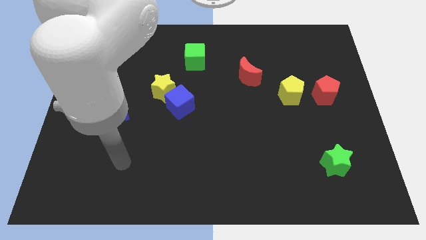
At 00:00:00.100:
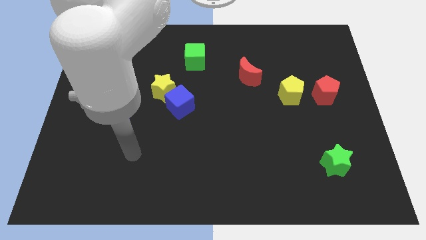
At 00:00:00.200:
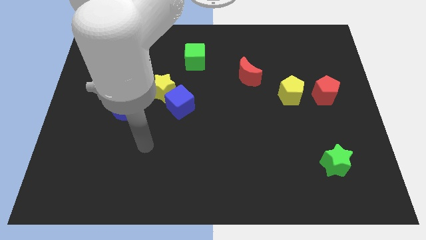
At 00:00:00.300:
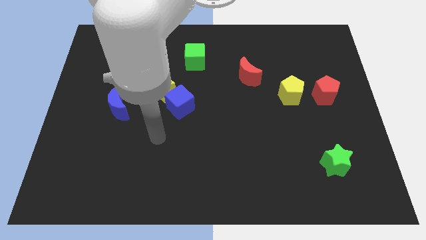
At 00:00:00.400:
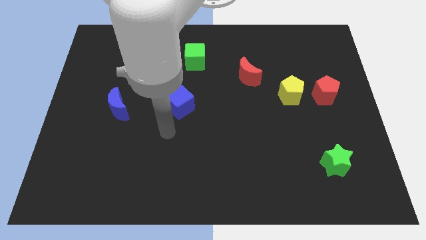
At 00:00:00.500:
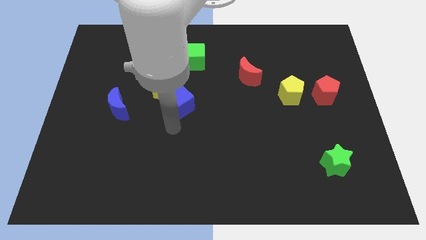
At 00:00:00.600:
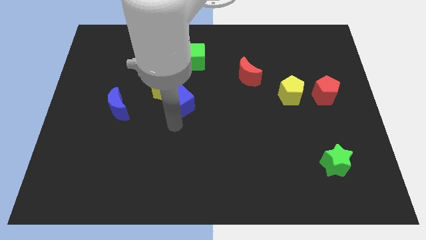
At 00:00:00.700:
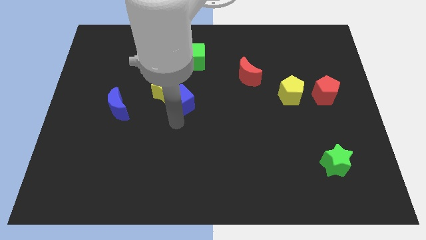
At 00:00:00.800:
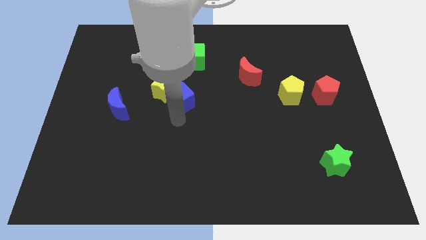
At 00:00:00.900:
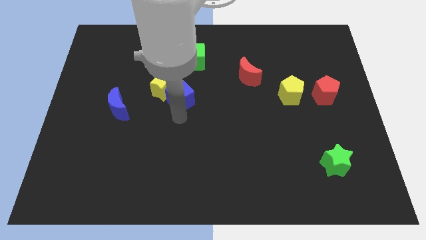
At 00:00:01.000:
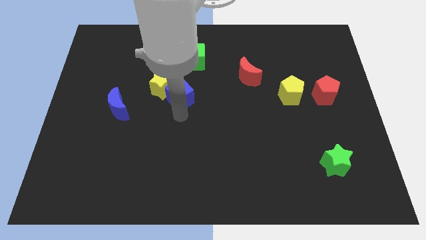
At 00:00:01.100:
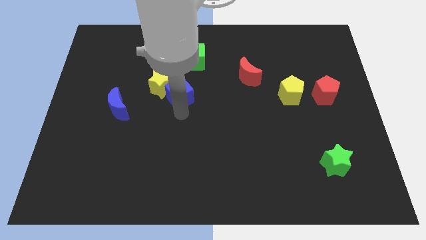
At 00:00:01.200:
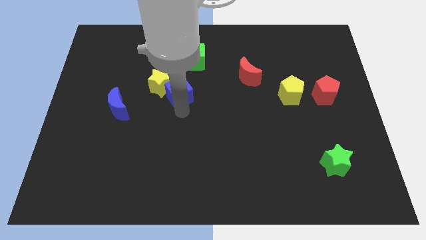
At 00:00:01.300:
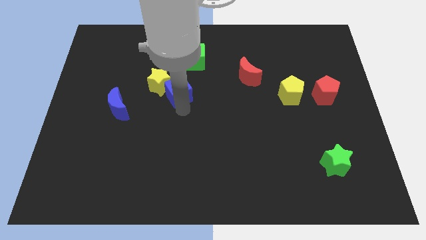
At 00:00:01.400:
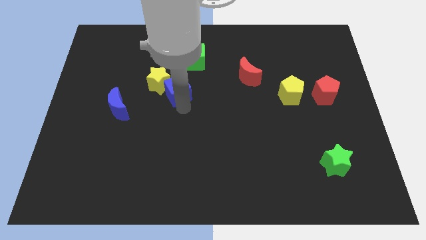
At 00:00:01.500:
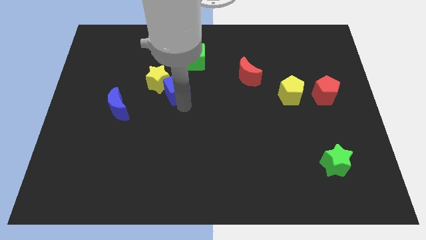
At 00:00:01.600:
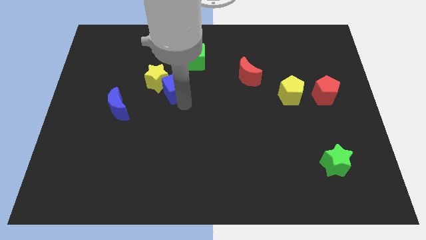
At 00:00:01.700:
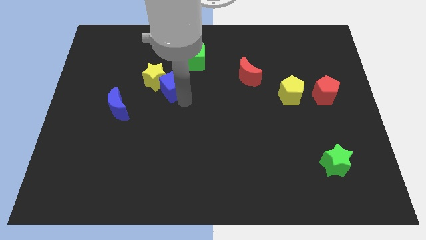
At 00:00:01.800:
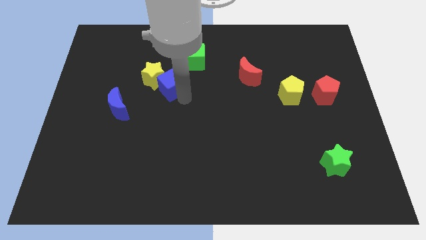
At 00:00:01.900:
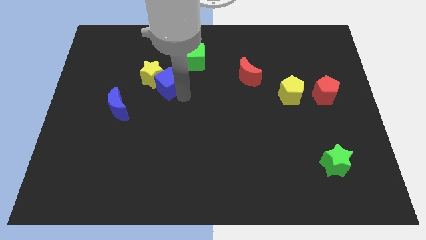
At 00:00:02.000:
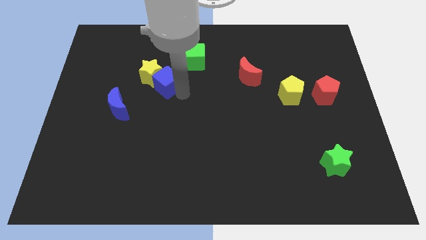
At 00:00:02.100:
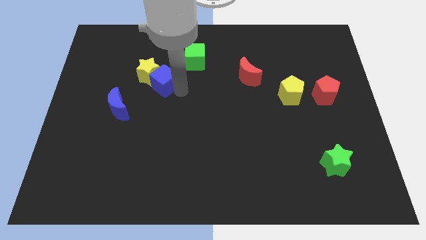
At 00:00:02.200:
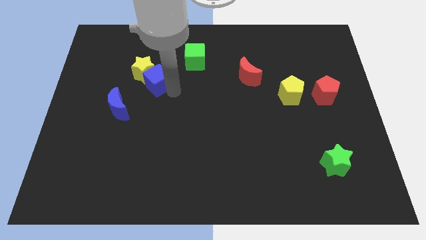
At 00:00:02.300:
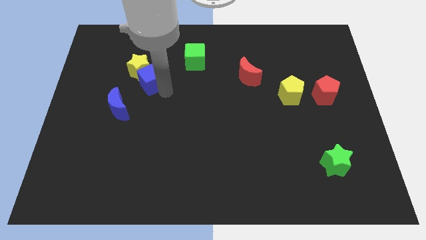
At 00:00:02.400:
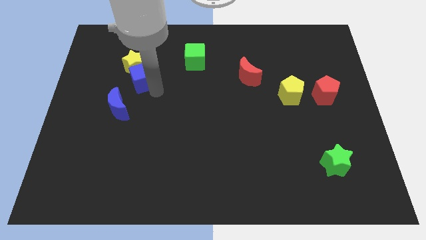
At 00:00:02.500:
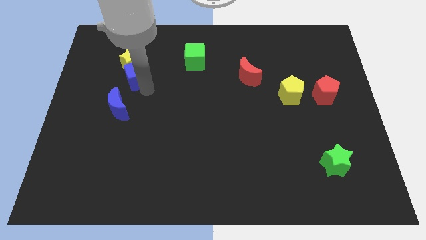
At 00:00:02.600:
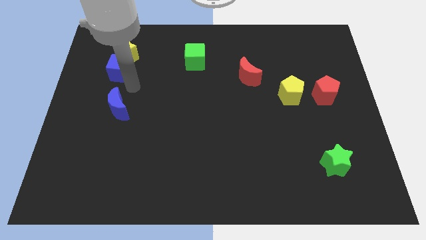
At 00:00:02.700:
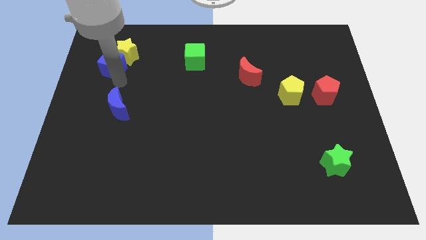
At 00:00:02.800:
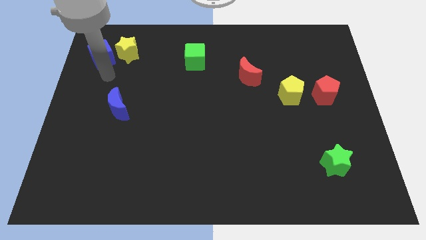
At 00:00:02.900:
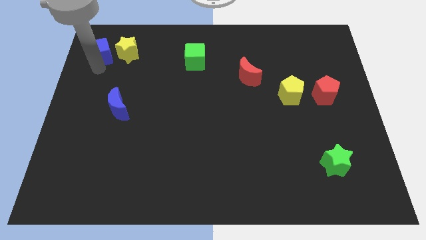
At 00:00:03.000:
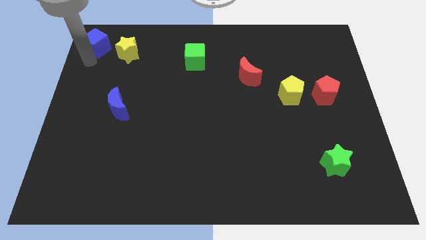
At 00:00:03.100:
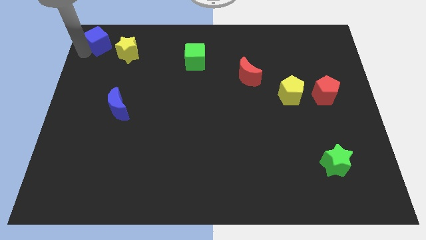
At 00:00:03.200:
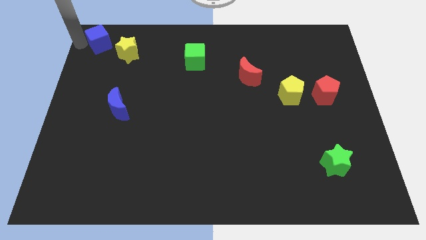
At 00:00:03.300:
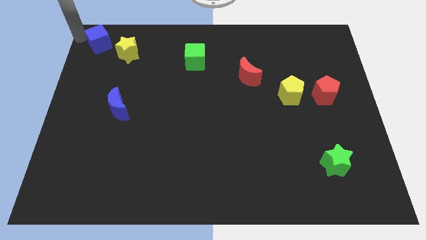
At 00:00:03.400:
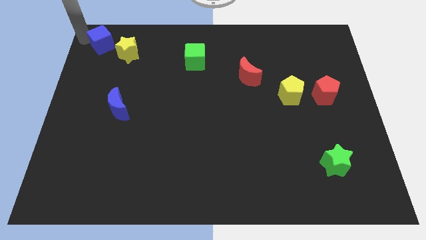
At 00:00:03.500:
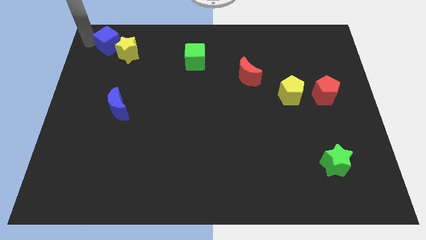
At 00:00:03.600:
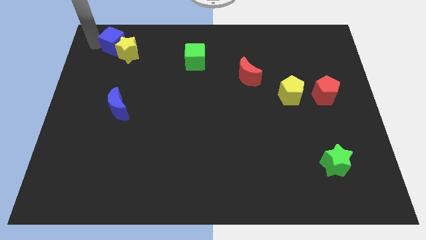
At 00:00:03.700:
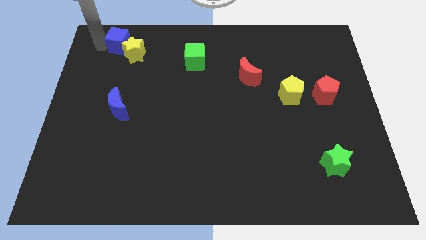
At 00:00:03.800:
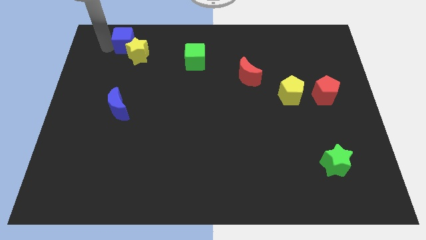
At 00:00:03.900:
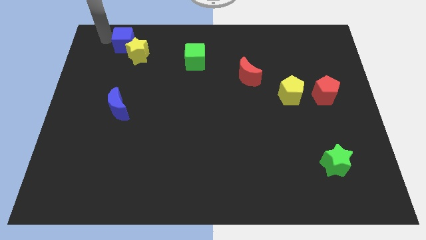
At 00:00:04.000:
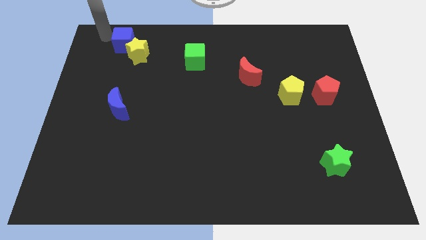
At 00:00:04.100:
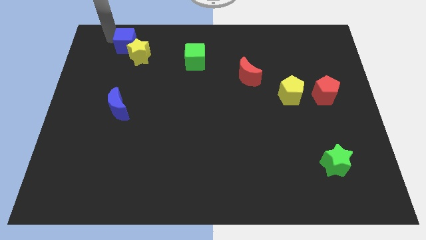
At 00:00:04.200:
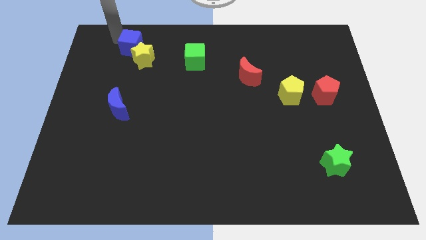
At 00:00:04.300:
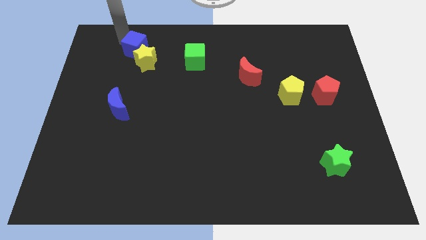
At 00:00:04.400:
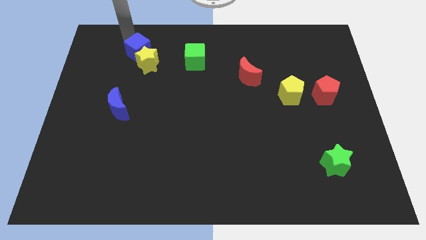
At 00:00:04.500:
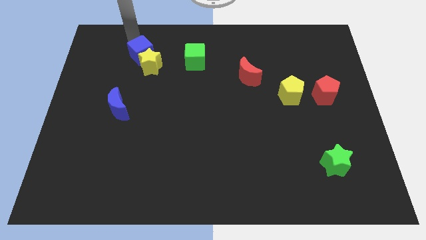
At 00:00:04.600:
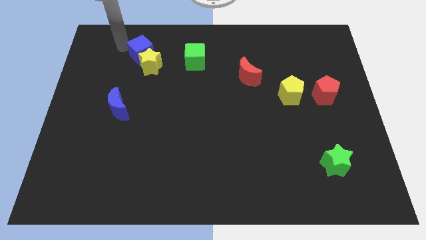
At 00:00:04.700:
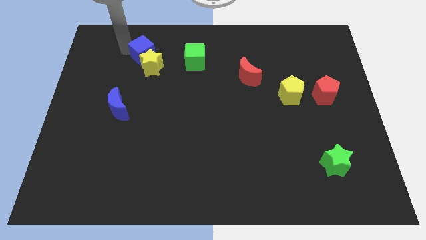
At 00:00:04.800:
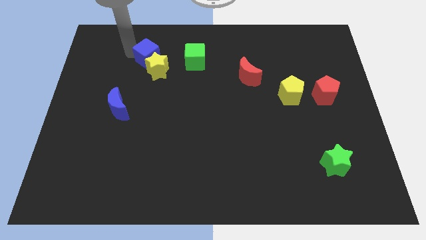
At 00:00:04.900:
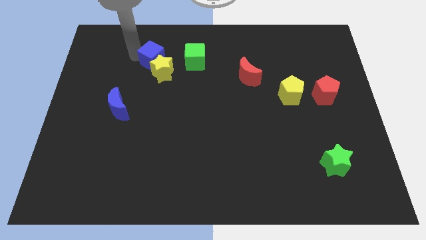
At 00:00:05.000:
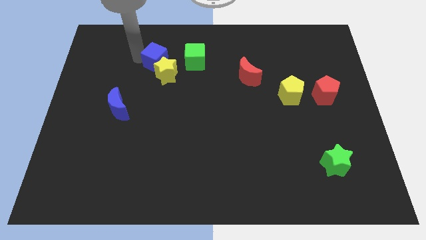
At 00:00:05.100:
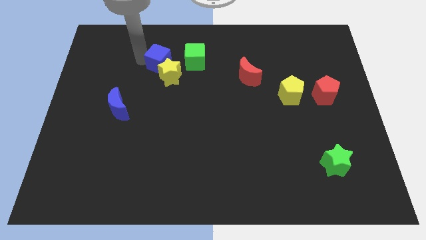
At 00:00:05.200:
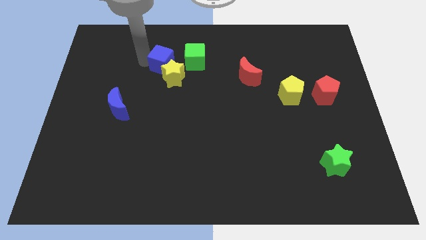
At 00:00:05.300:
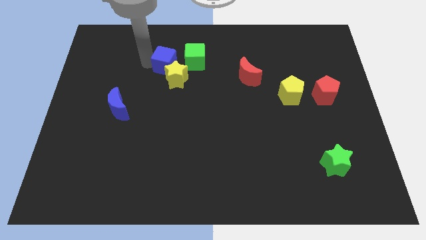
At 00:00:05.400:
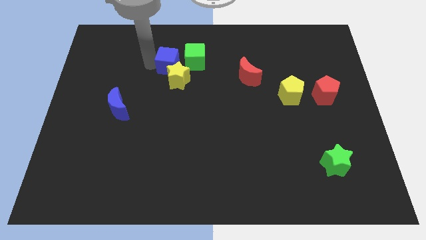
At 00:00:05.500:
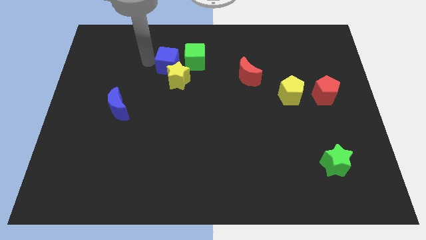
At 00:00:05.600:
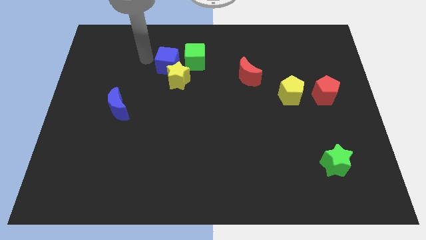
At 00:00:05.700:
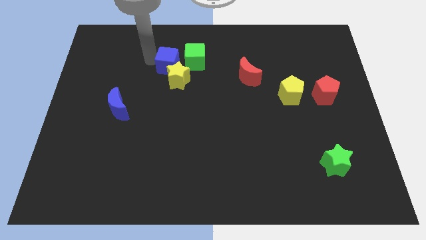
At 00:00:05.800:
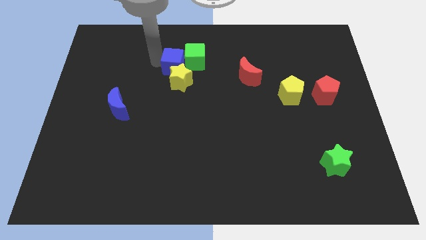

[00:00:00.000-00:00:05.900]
push the blue cube to the green cube

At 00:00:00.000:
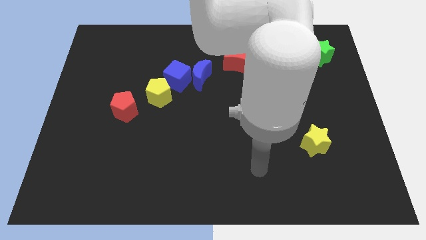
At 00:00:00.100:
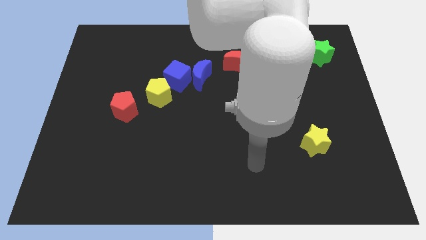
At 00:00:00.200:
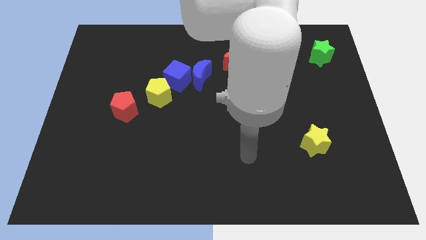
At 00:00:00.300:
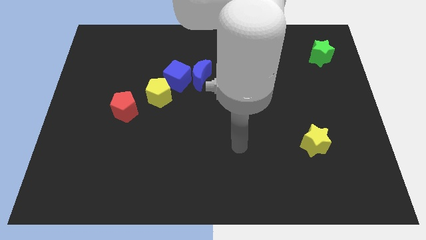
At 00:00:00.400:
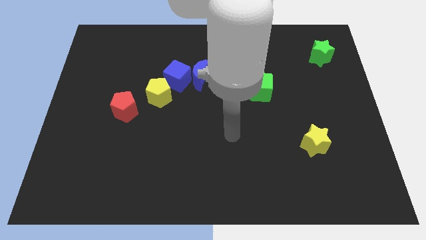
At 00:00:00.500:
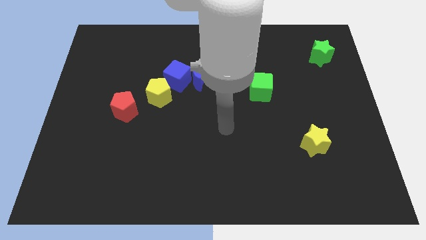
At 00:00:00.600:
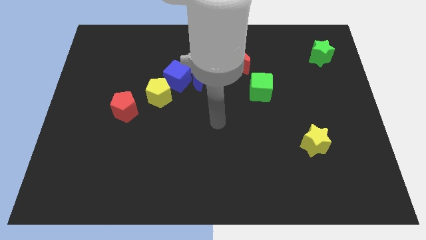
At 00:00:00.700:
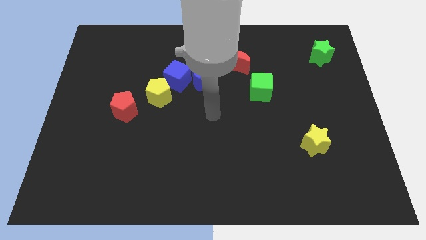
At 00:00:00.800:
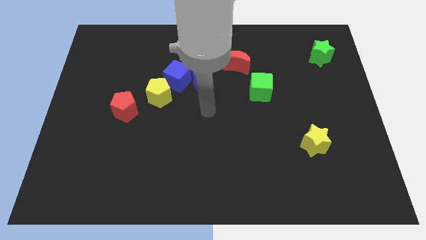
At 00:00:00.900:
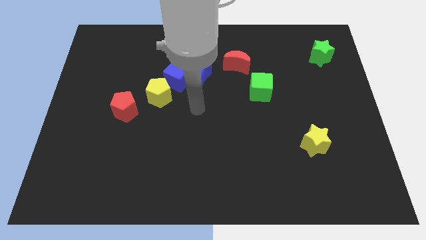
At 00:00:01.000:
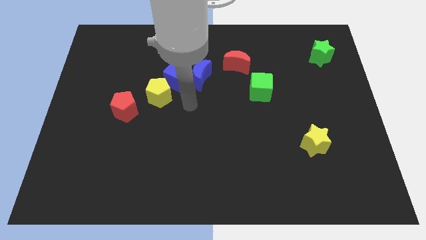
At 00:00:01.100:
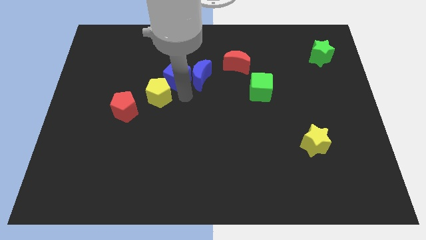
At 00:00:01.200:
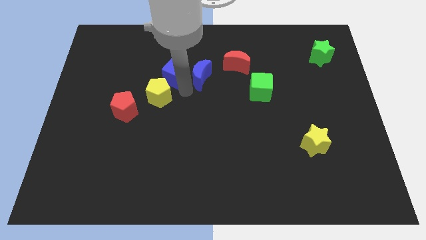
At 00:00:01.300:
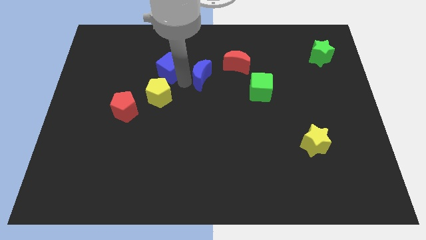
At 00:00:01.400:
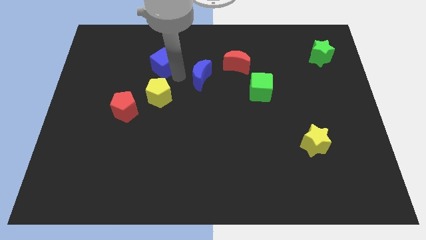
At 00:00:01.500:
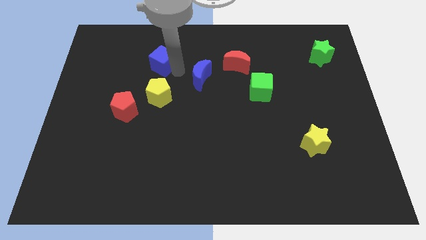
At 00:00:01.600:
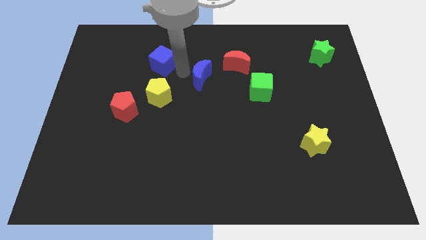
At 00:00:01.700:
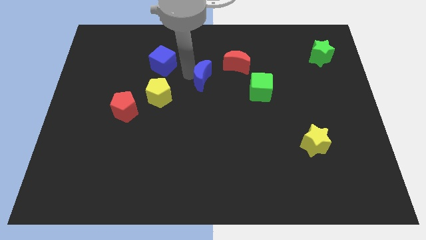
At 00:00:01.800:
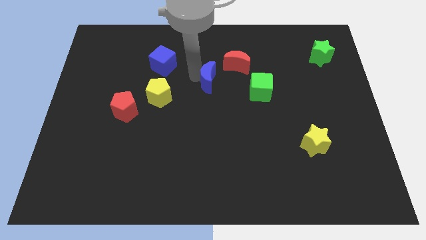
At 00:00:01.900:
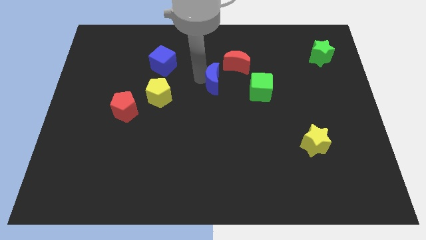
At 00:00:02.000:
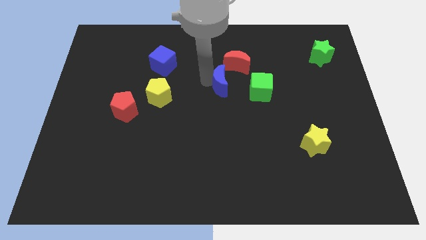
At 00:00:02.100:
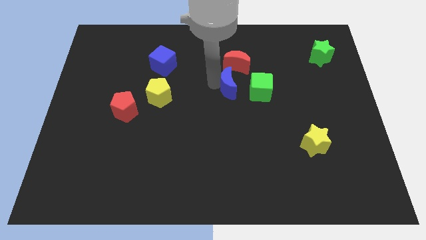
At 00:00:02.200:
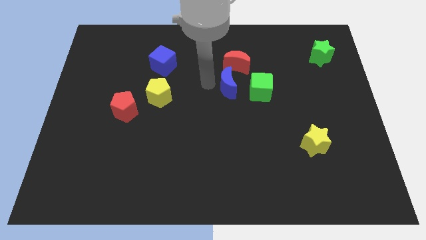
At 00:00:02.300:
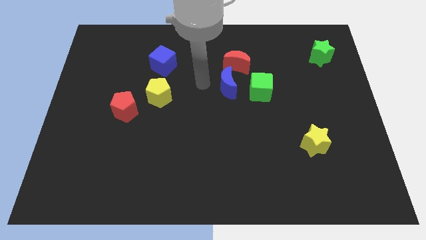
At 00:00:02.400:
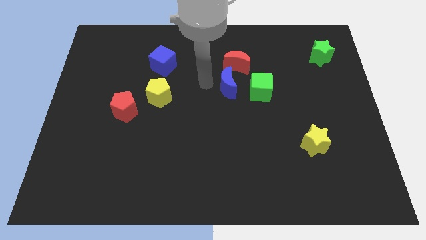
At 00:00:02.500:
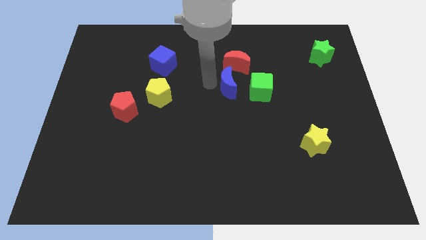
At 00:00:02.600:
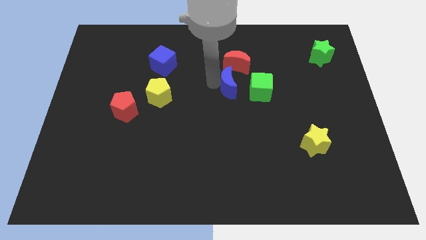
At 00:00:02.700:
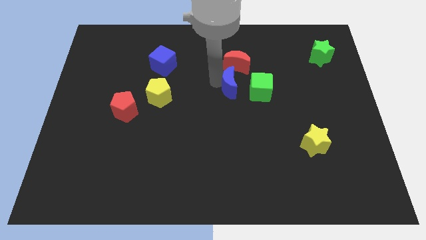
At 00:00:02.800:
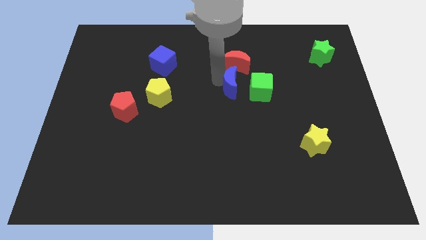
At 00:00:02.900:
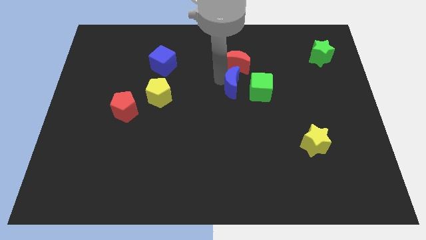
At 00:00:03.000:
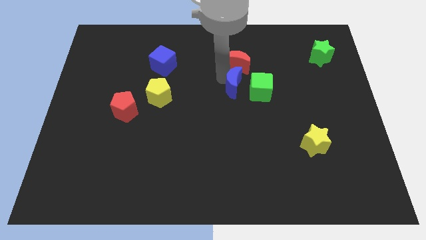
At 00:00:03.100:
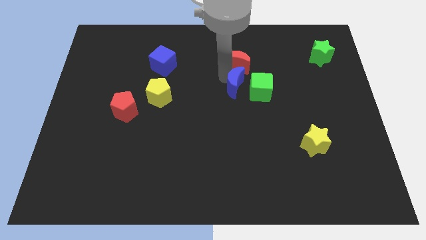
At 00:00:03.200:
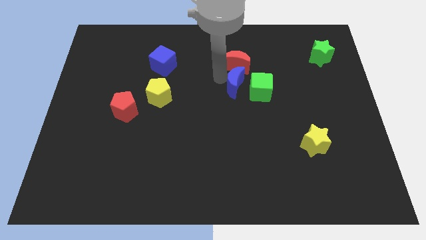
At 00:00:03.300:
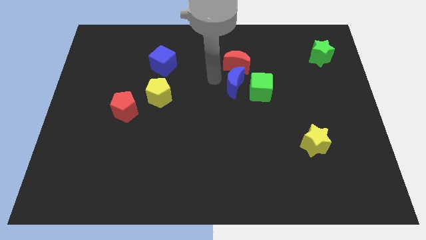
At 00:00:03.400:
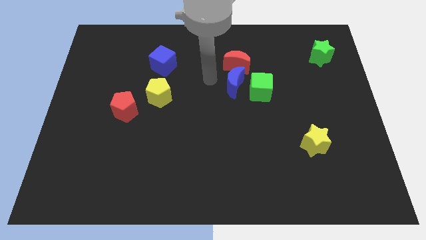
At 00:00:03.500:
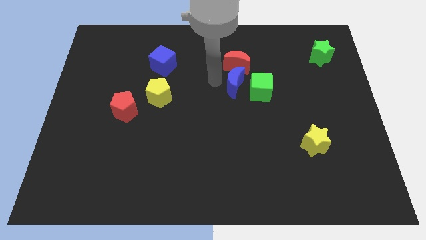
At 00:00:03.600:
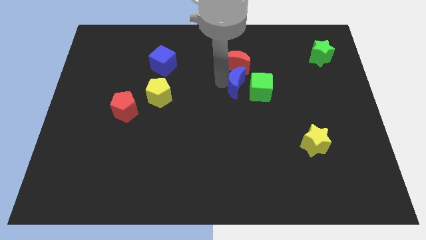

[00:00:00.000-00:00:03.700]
slide the blue moon towards the green cube
